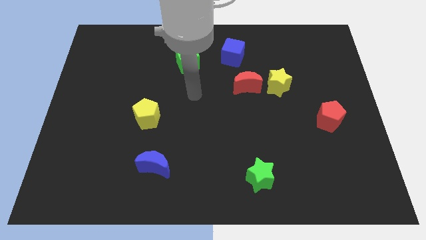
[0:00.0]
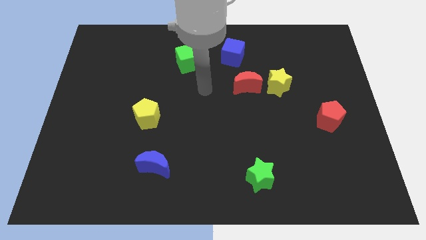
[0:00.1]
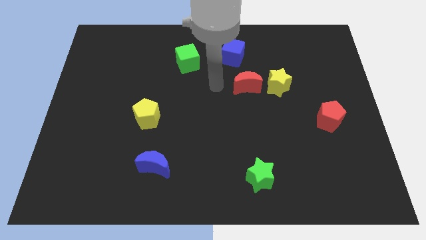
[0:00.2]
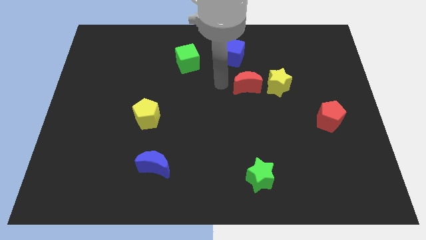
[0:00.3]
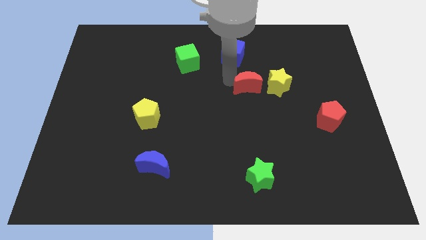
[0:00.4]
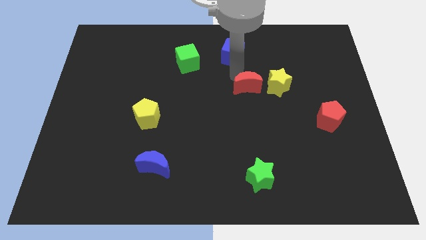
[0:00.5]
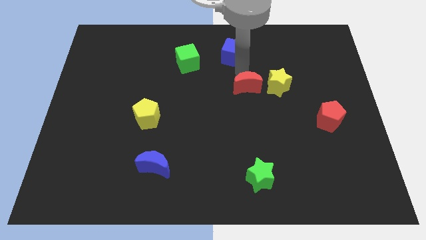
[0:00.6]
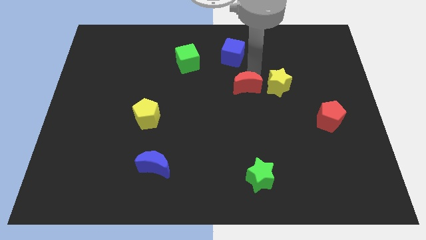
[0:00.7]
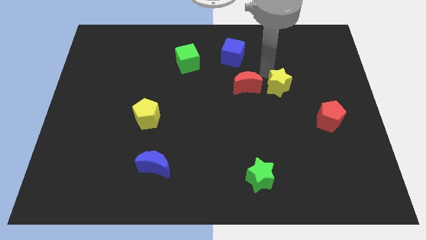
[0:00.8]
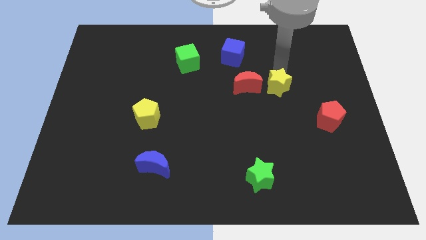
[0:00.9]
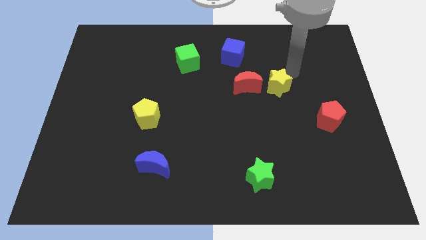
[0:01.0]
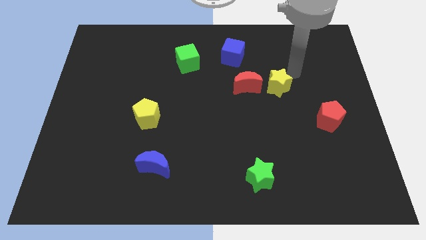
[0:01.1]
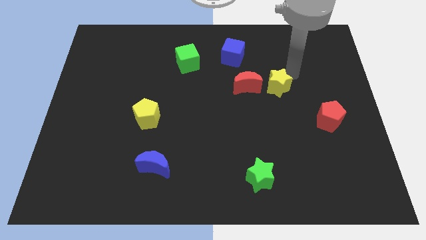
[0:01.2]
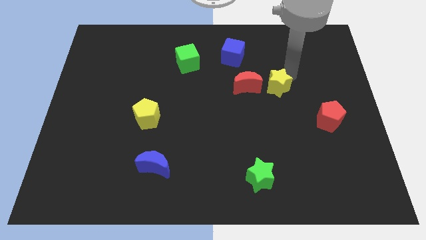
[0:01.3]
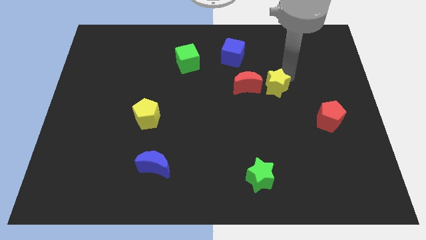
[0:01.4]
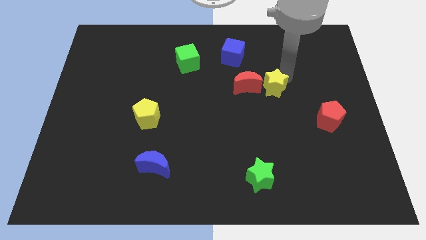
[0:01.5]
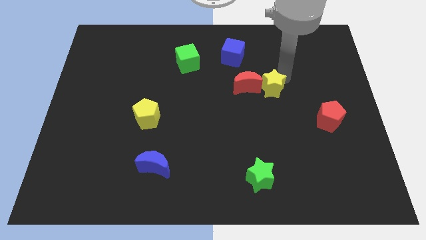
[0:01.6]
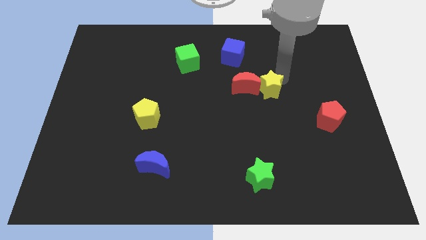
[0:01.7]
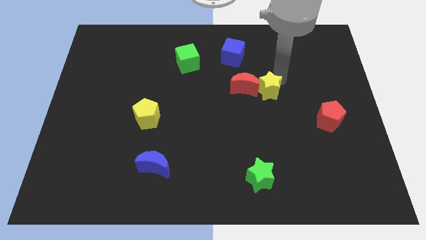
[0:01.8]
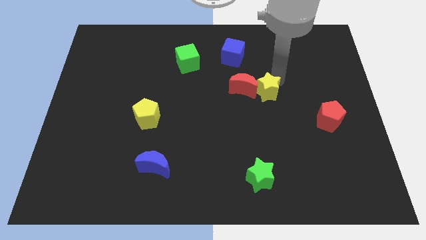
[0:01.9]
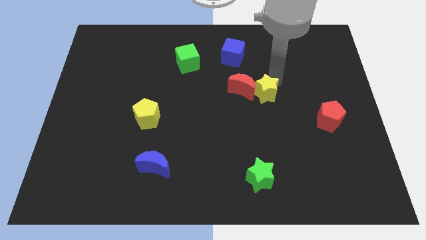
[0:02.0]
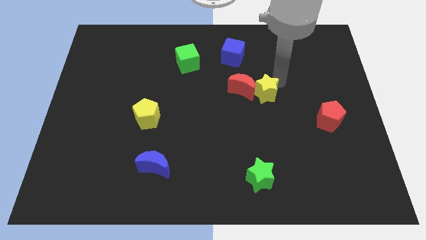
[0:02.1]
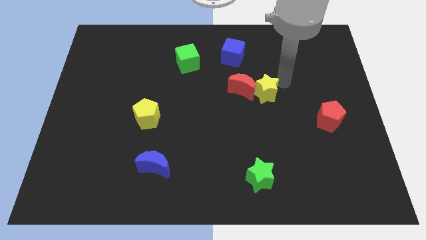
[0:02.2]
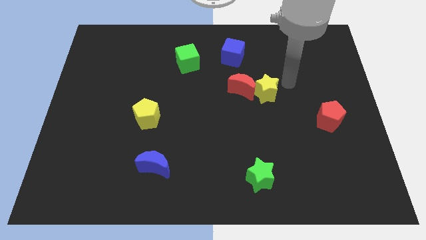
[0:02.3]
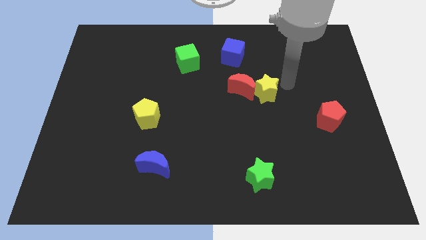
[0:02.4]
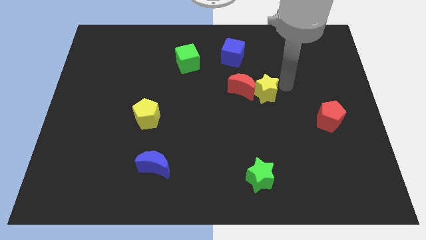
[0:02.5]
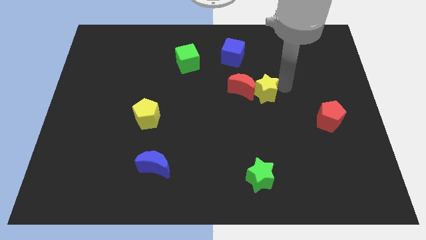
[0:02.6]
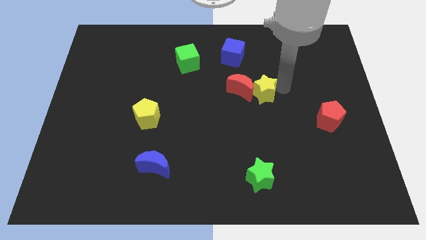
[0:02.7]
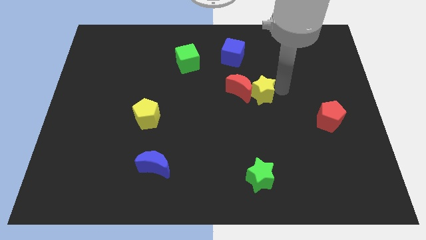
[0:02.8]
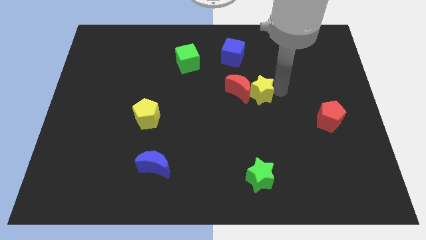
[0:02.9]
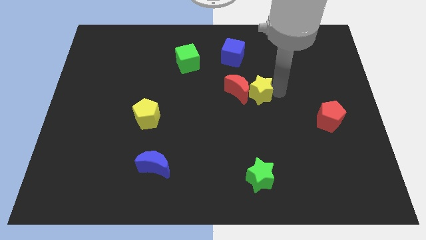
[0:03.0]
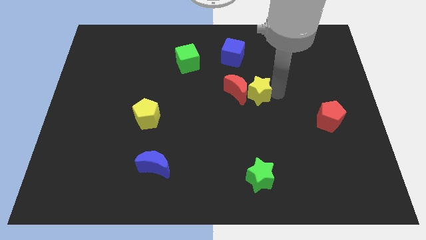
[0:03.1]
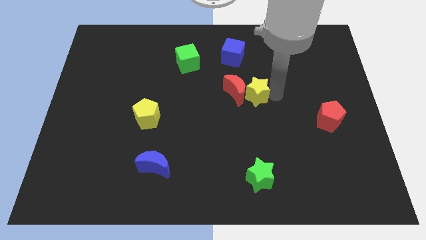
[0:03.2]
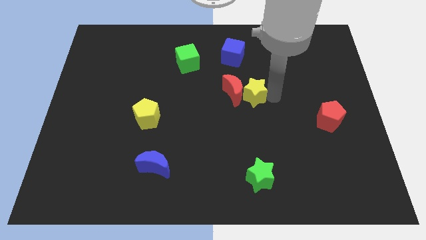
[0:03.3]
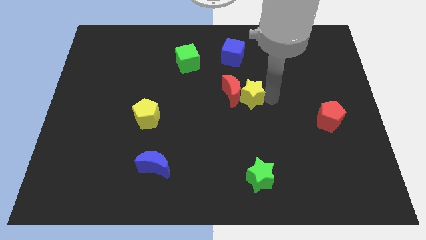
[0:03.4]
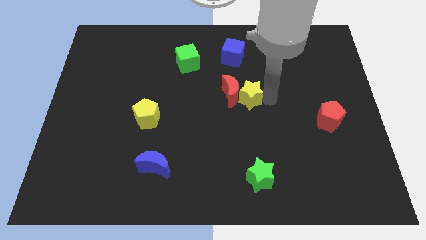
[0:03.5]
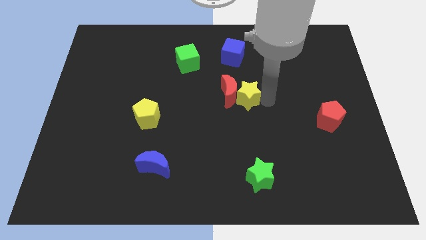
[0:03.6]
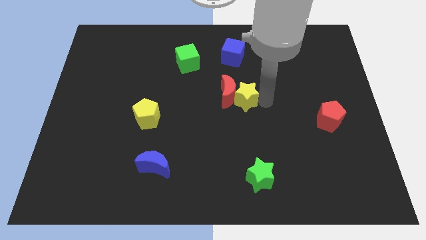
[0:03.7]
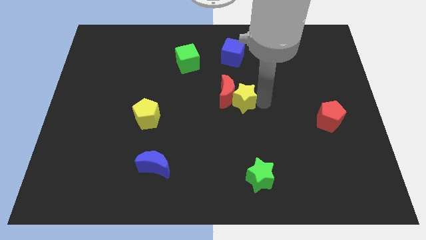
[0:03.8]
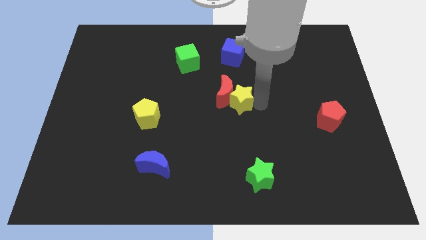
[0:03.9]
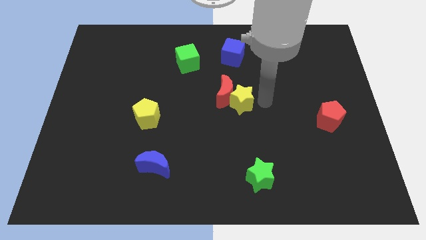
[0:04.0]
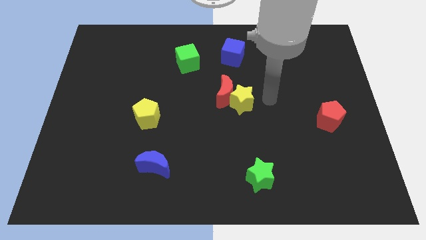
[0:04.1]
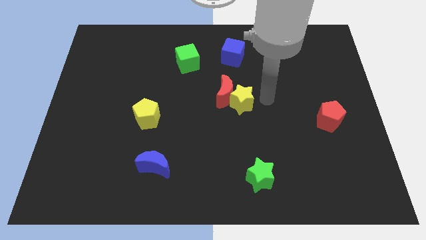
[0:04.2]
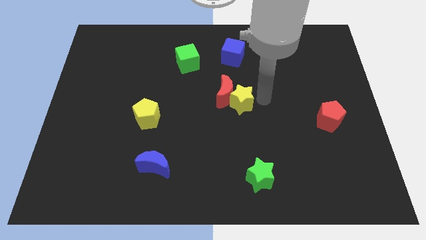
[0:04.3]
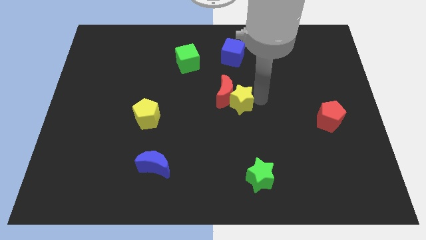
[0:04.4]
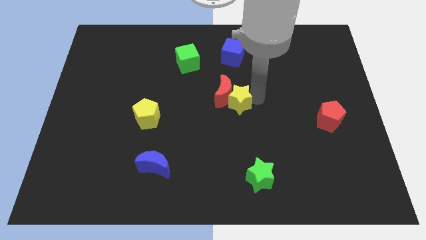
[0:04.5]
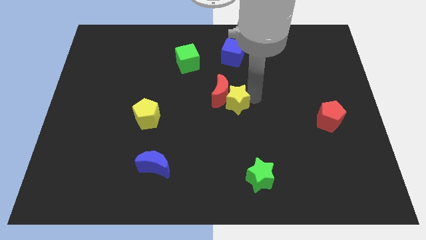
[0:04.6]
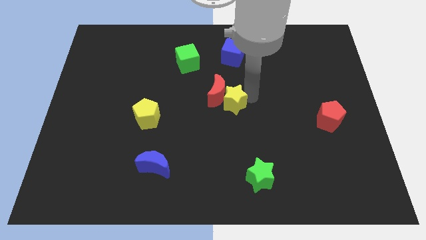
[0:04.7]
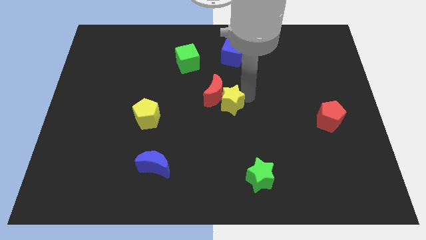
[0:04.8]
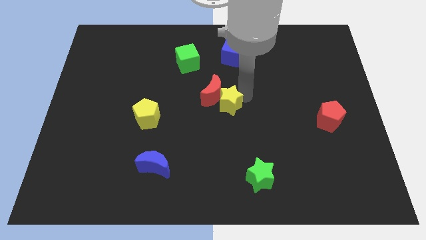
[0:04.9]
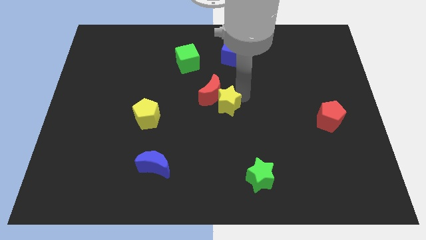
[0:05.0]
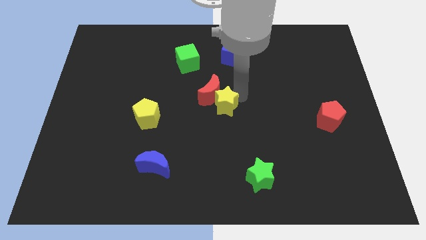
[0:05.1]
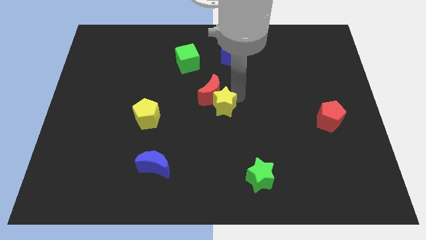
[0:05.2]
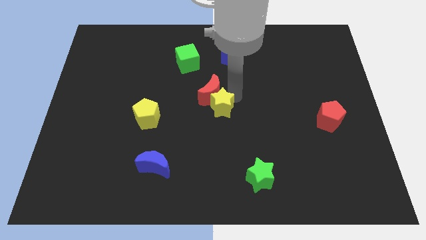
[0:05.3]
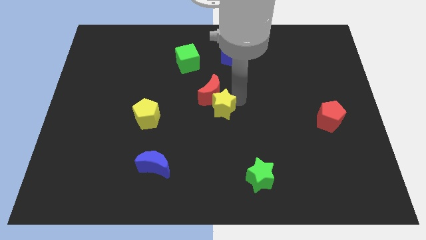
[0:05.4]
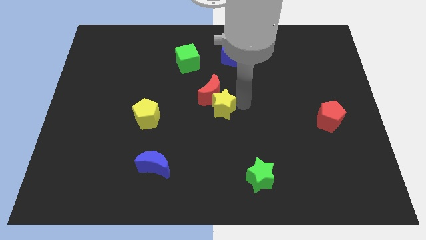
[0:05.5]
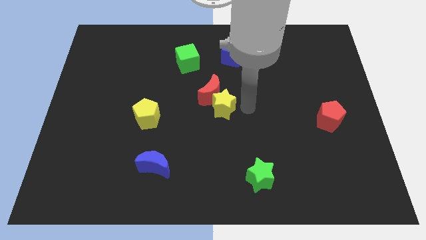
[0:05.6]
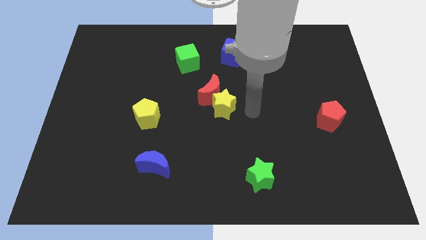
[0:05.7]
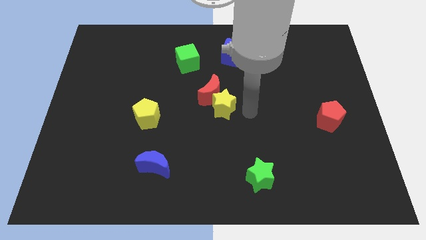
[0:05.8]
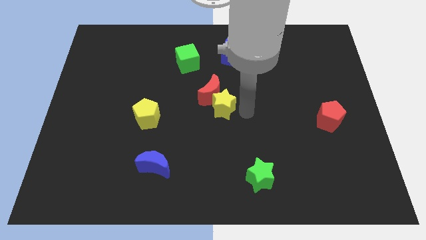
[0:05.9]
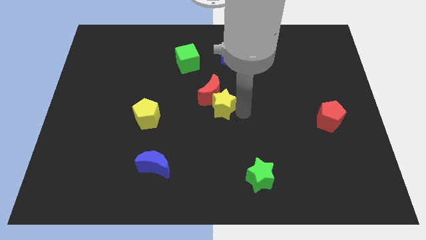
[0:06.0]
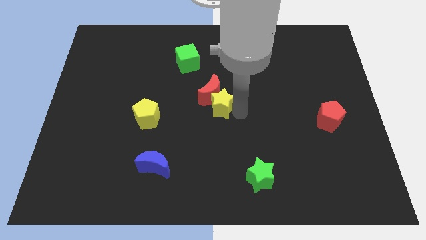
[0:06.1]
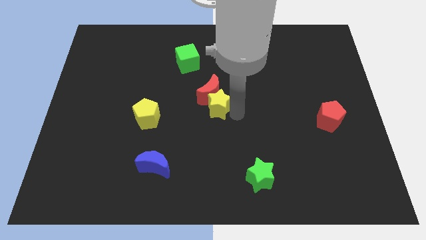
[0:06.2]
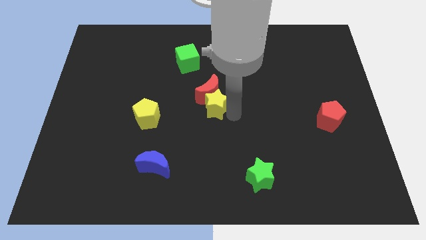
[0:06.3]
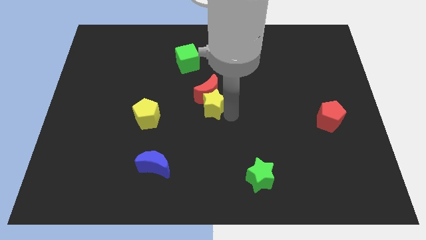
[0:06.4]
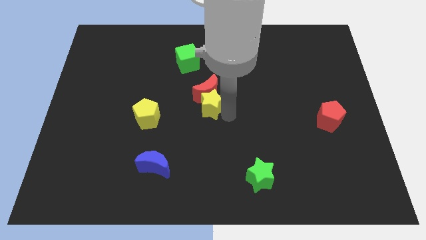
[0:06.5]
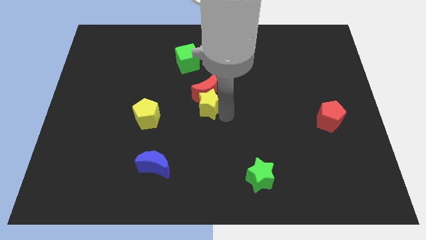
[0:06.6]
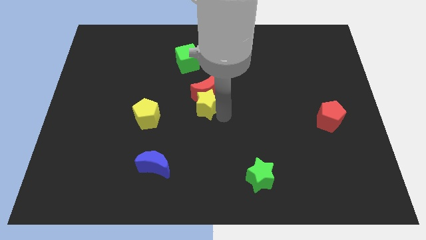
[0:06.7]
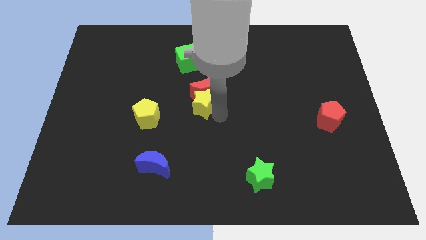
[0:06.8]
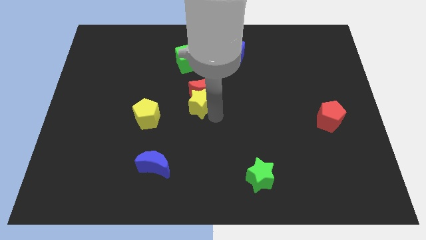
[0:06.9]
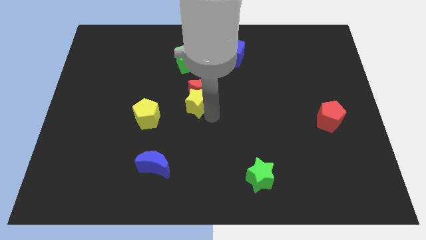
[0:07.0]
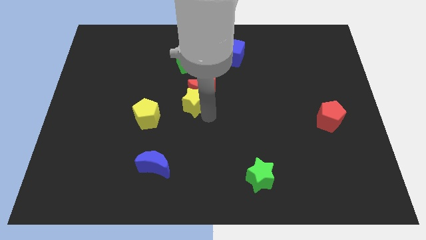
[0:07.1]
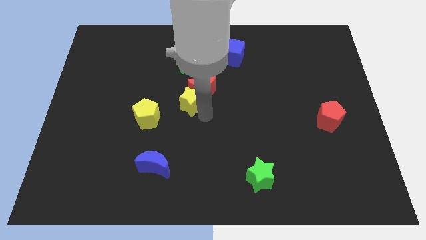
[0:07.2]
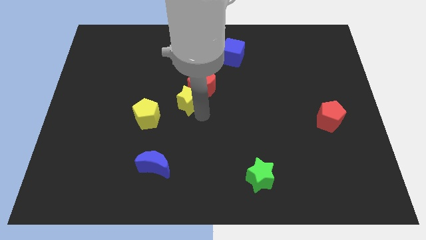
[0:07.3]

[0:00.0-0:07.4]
slide the yellow star left

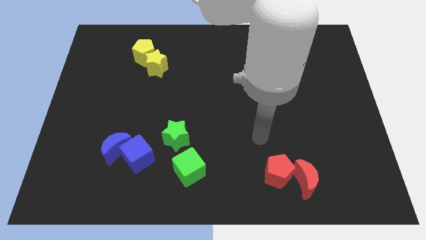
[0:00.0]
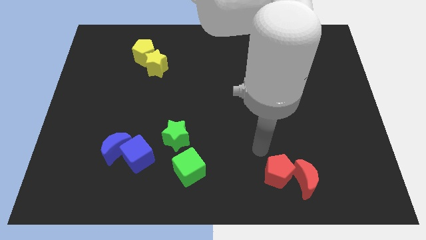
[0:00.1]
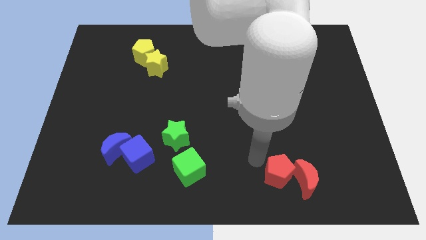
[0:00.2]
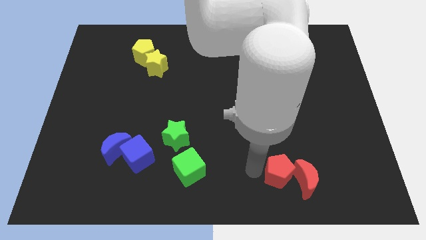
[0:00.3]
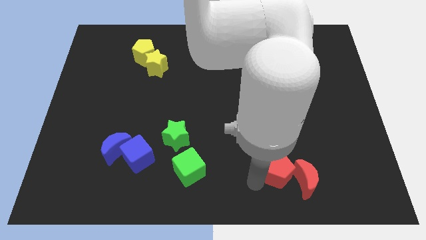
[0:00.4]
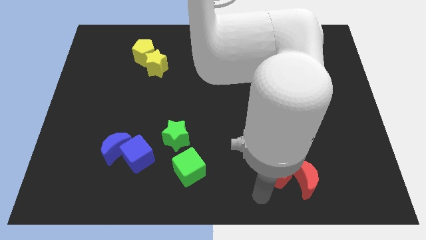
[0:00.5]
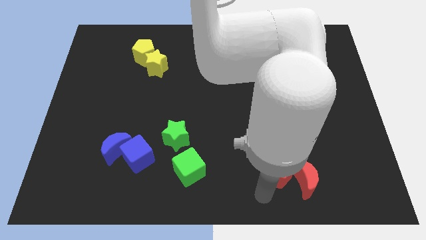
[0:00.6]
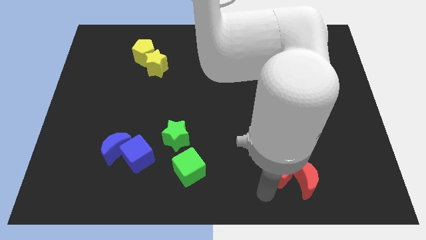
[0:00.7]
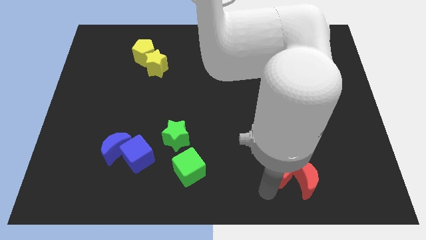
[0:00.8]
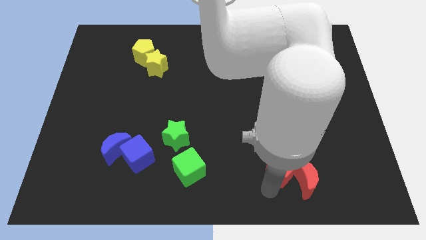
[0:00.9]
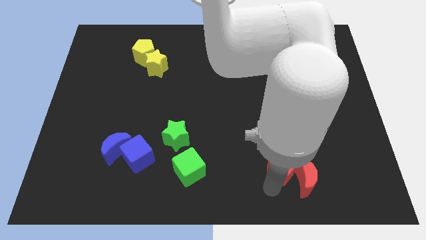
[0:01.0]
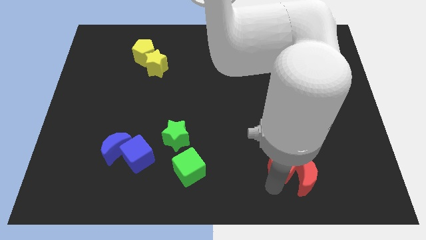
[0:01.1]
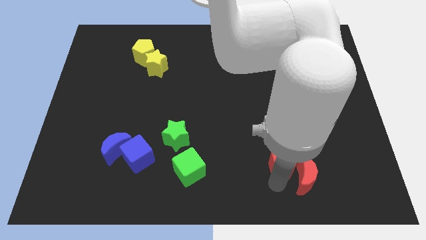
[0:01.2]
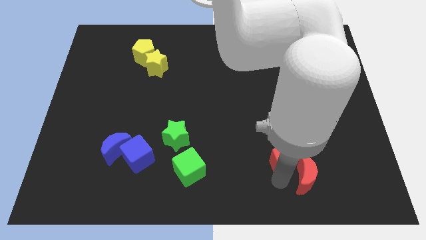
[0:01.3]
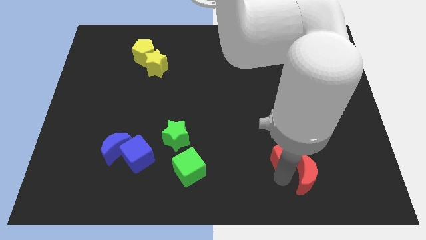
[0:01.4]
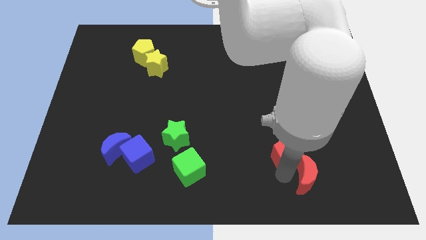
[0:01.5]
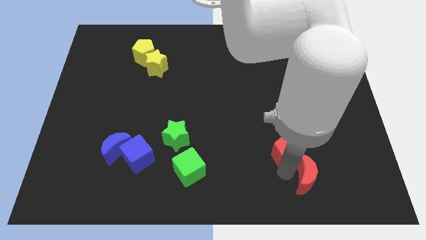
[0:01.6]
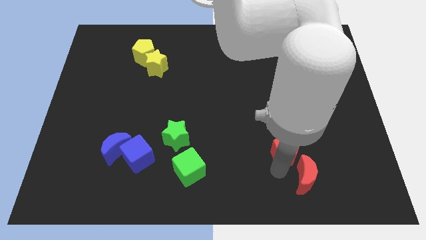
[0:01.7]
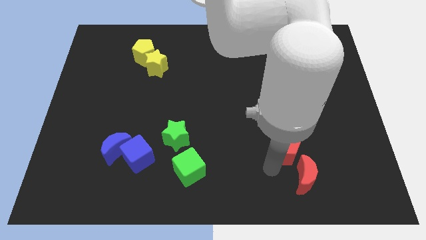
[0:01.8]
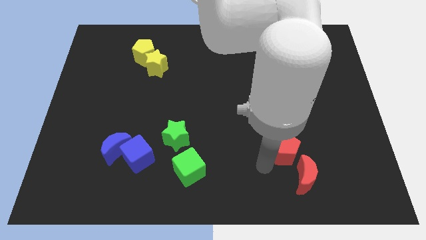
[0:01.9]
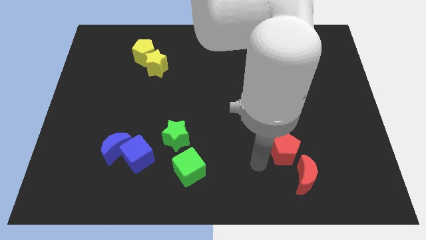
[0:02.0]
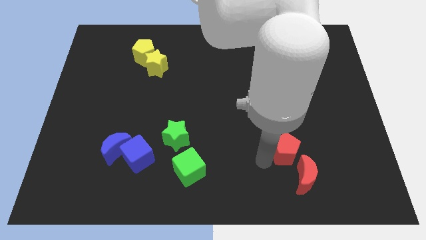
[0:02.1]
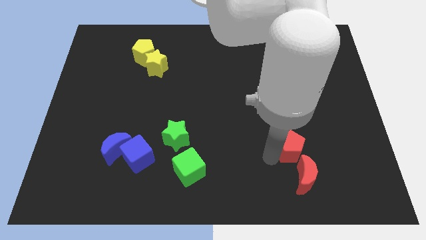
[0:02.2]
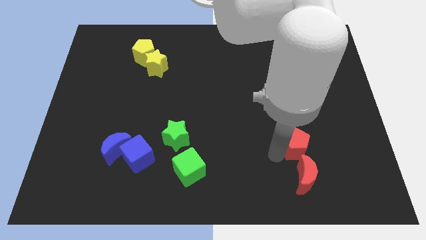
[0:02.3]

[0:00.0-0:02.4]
slide the red pentagon up and to the right diagonally a little
